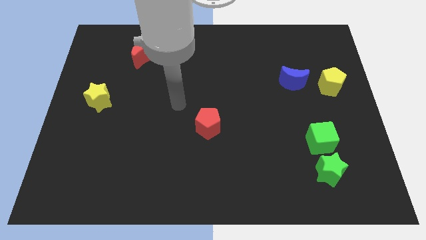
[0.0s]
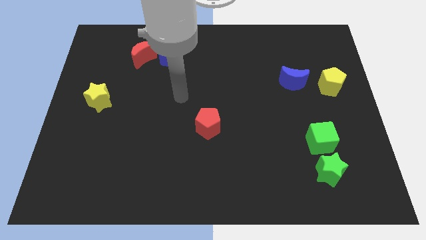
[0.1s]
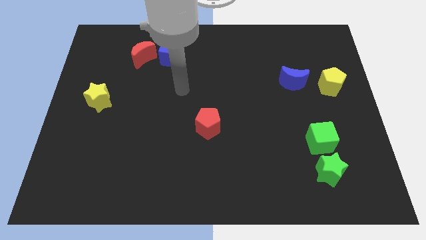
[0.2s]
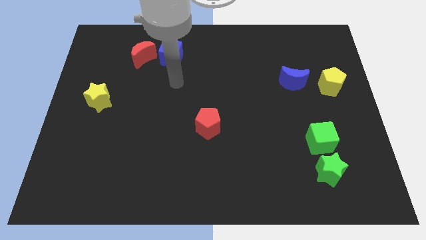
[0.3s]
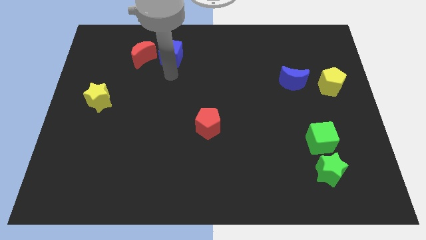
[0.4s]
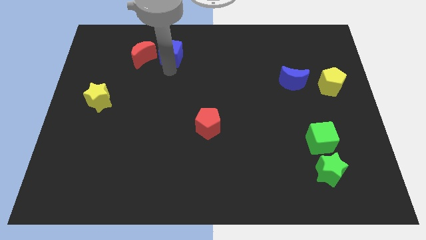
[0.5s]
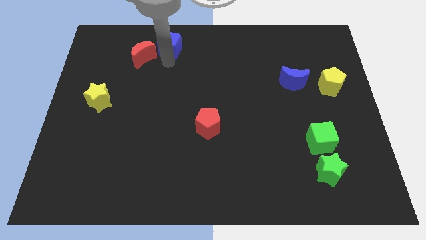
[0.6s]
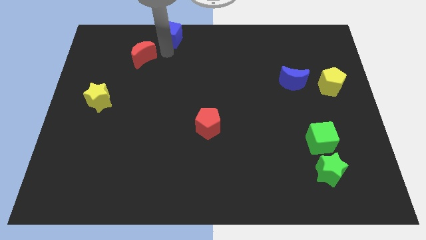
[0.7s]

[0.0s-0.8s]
separate the red moon from the blue cube

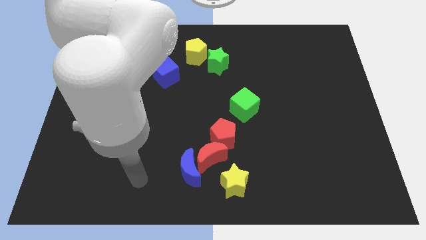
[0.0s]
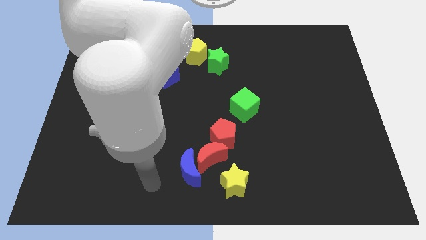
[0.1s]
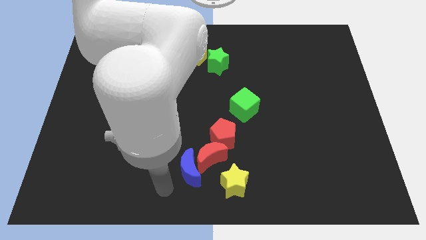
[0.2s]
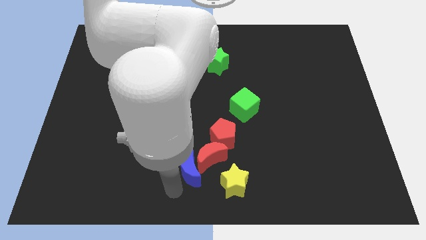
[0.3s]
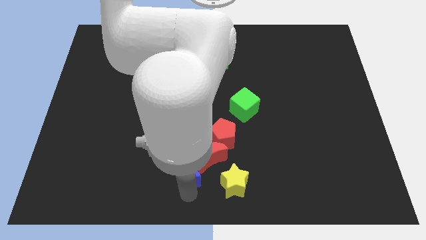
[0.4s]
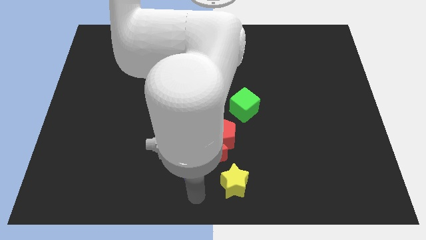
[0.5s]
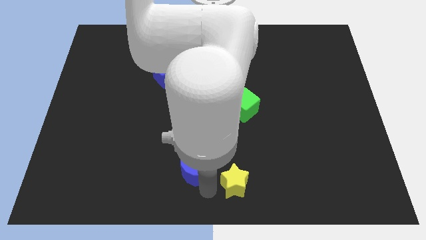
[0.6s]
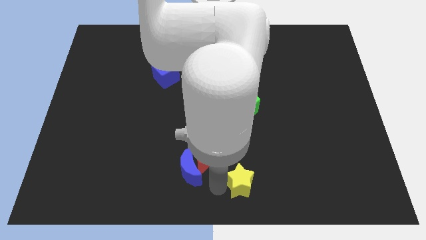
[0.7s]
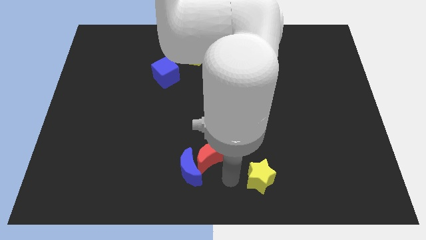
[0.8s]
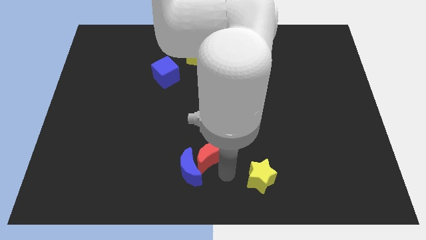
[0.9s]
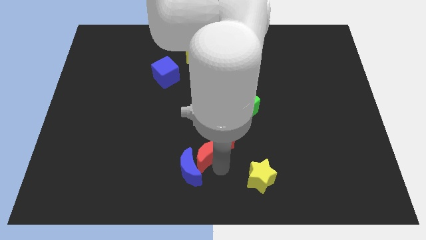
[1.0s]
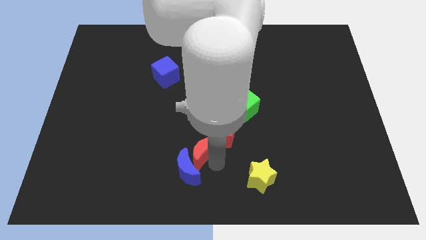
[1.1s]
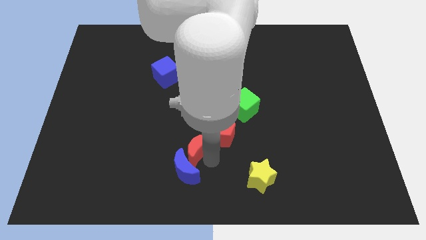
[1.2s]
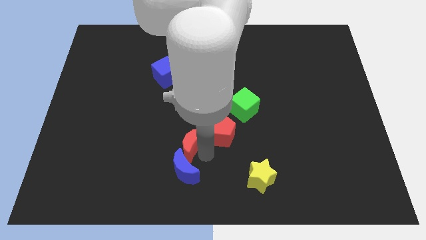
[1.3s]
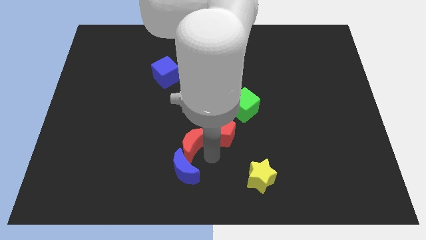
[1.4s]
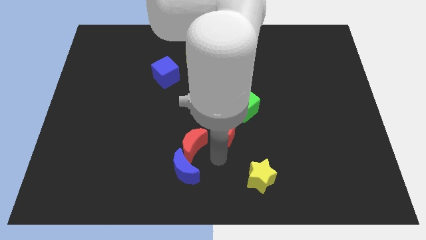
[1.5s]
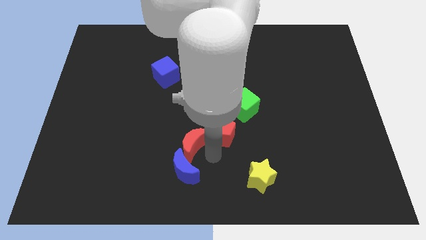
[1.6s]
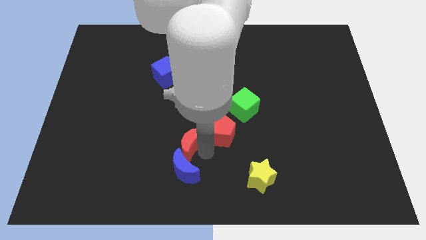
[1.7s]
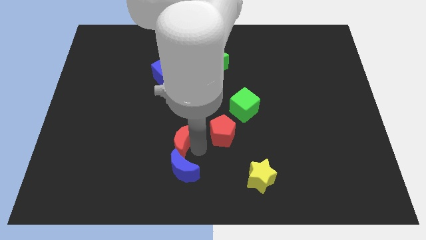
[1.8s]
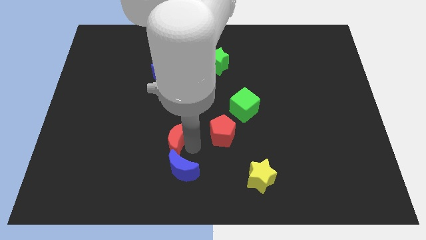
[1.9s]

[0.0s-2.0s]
move the red moon away from the group

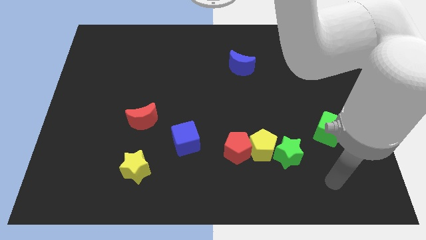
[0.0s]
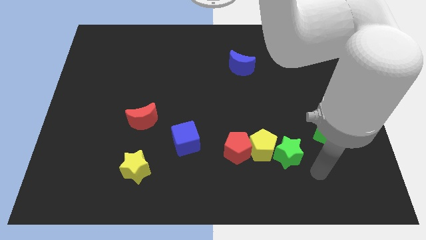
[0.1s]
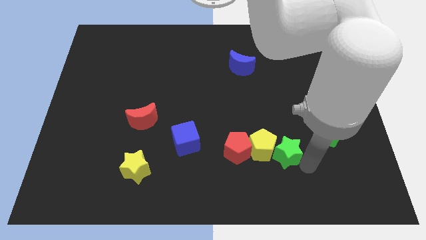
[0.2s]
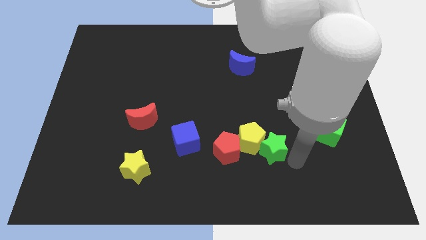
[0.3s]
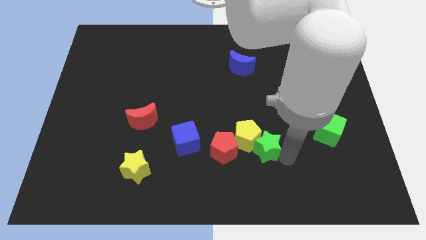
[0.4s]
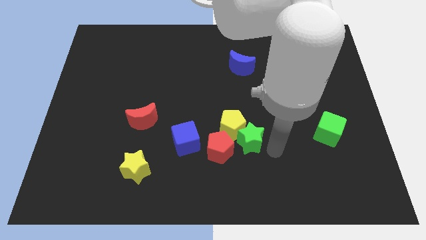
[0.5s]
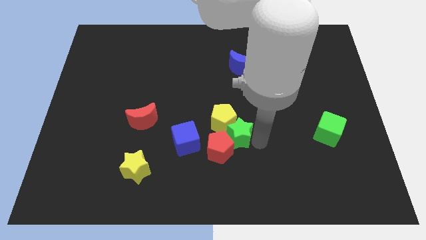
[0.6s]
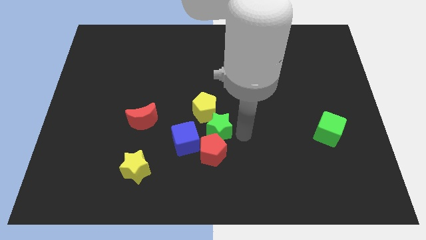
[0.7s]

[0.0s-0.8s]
move the red pentagon away from the yellow pentagon

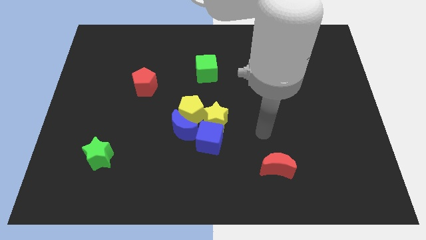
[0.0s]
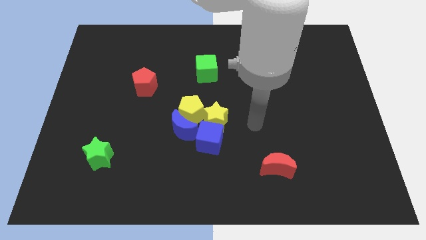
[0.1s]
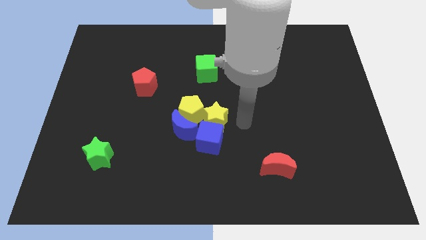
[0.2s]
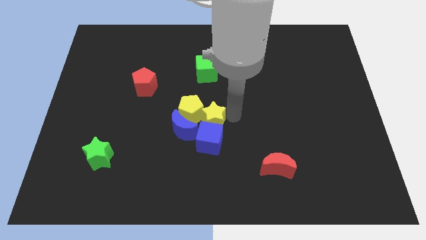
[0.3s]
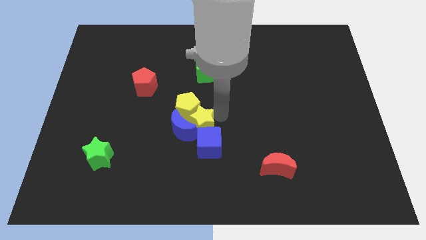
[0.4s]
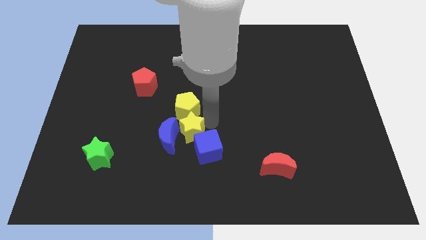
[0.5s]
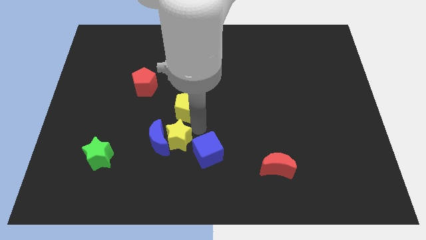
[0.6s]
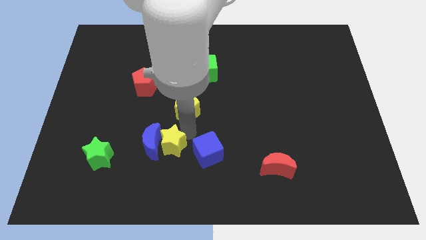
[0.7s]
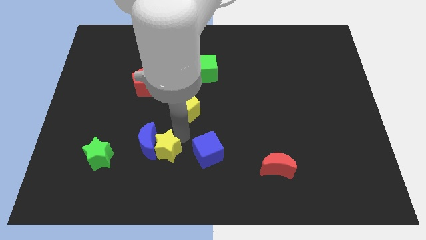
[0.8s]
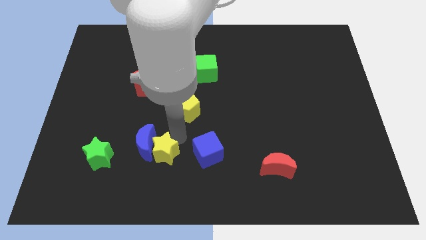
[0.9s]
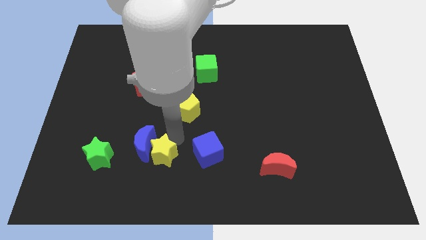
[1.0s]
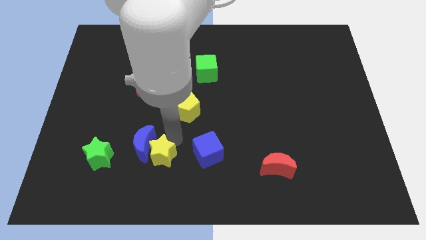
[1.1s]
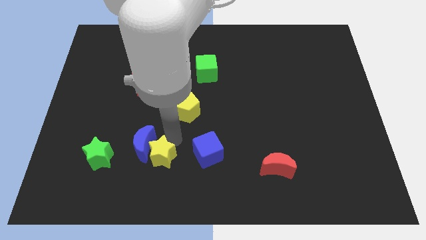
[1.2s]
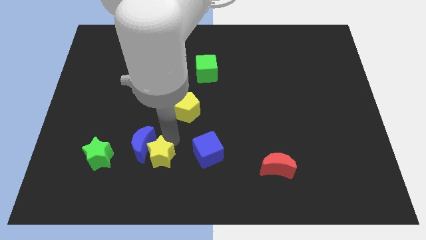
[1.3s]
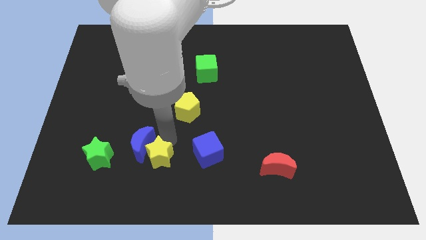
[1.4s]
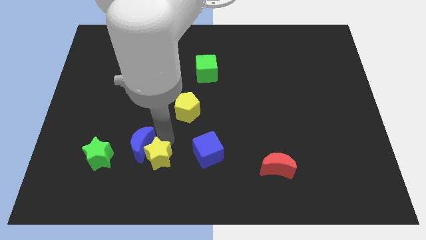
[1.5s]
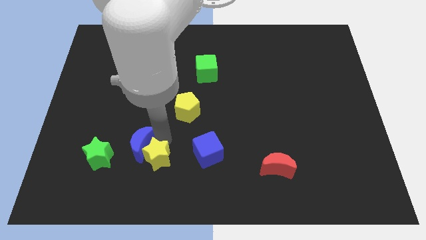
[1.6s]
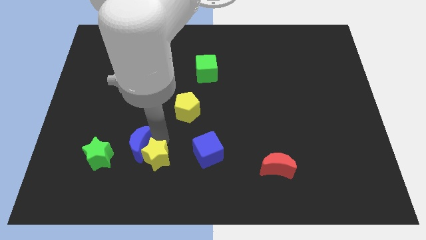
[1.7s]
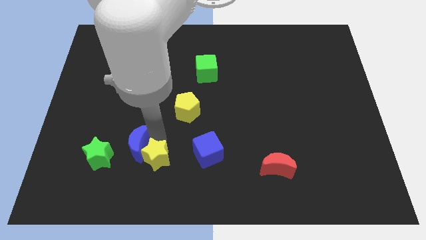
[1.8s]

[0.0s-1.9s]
move the blue moon away from the yellow pentagon, blue cube, and yellow star

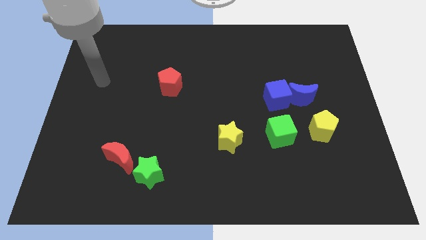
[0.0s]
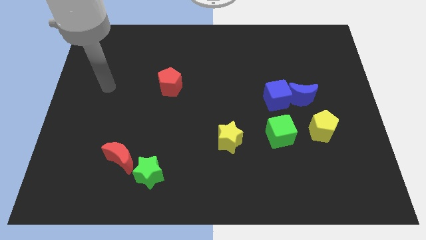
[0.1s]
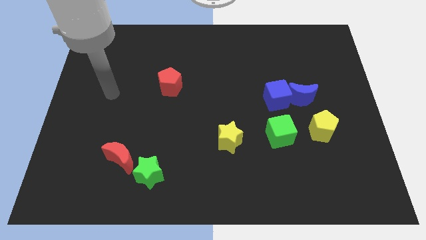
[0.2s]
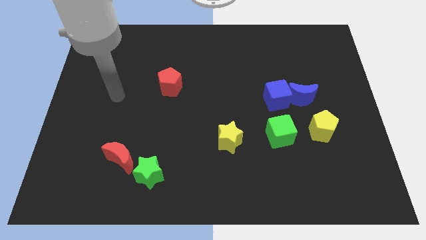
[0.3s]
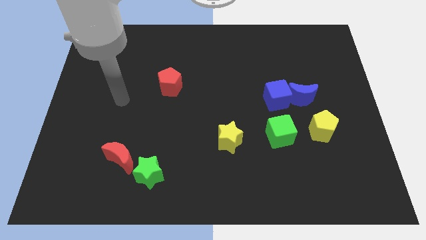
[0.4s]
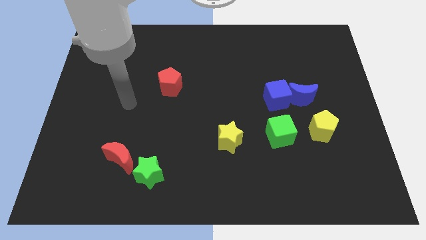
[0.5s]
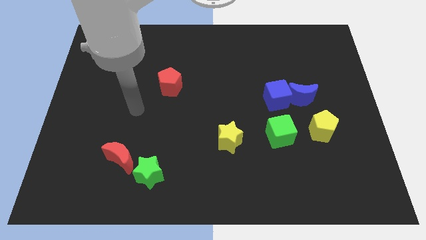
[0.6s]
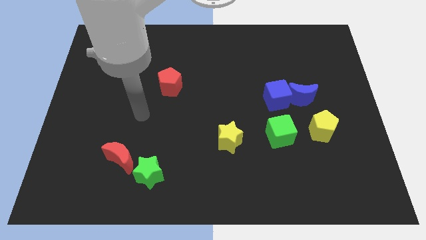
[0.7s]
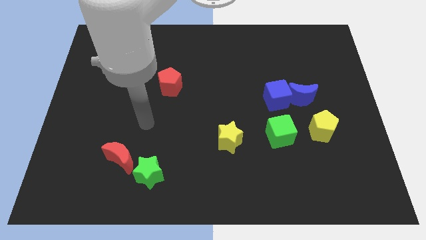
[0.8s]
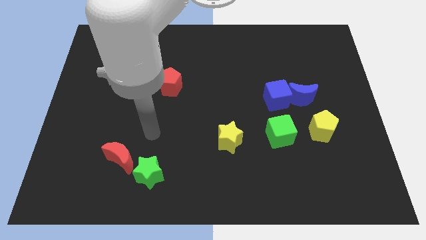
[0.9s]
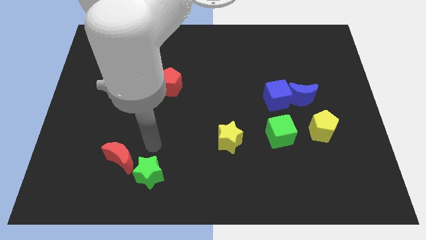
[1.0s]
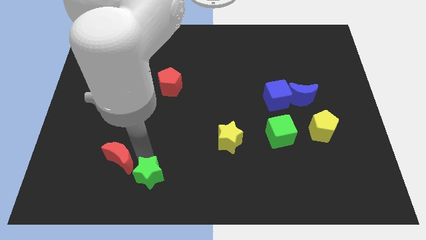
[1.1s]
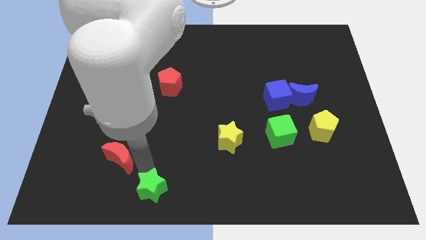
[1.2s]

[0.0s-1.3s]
pull the red moon apart from the green star

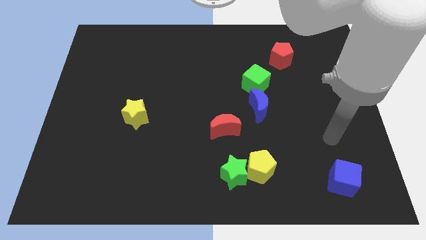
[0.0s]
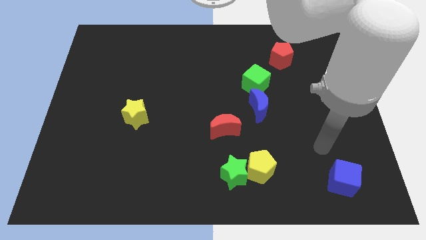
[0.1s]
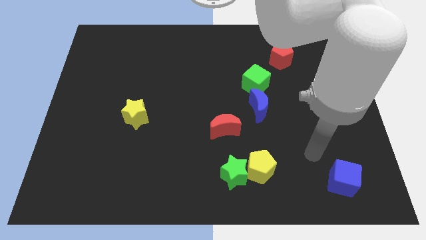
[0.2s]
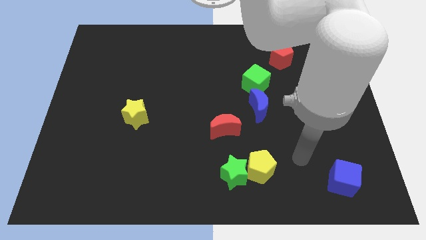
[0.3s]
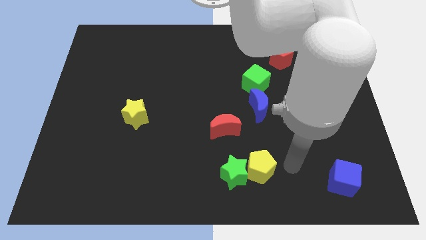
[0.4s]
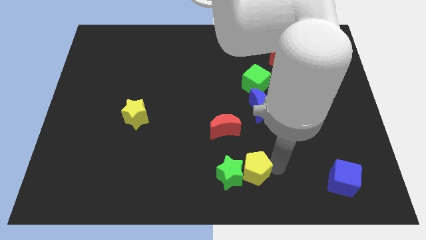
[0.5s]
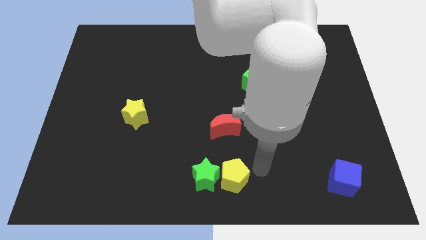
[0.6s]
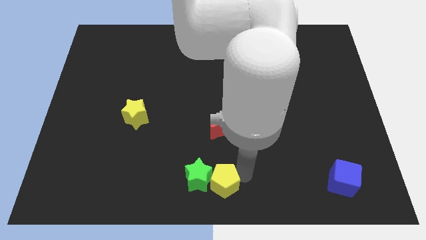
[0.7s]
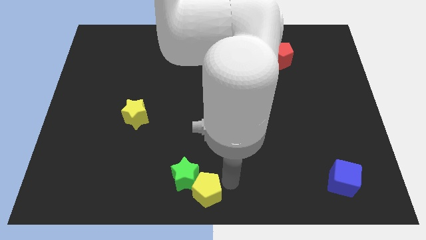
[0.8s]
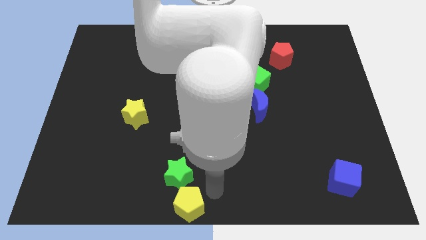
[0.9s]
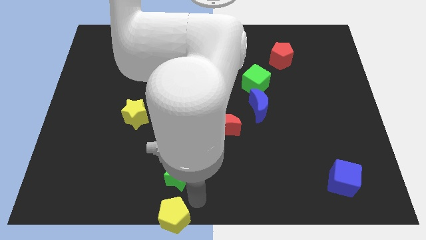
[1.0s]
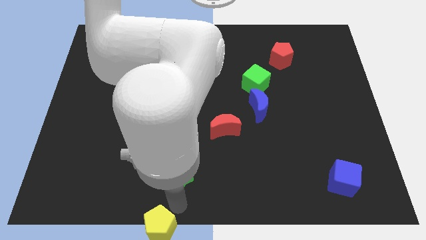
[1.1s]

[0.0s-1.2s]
separate the green star from the yellow pentagon

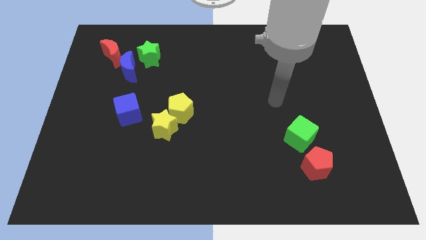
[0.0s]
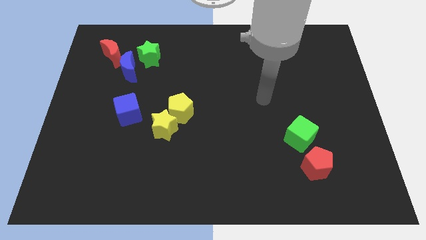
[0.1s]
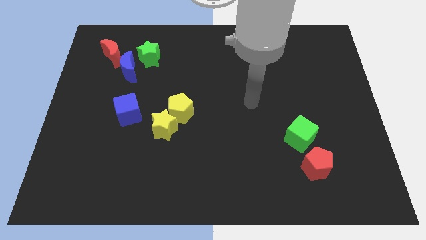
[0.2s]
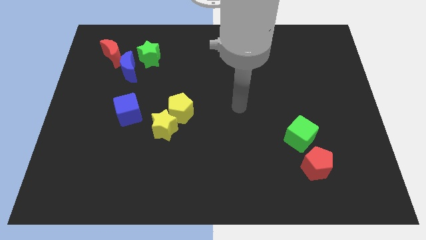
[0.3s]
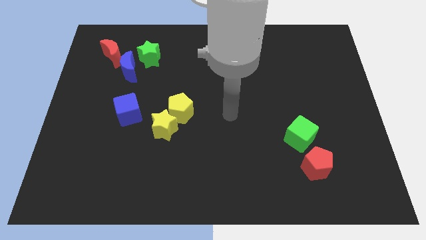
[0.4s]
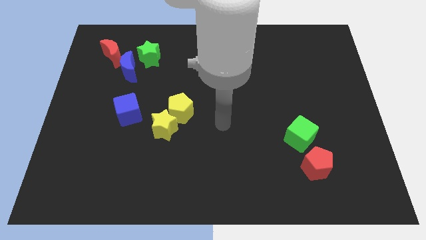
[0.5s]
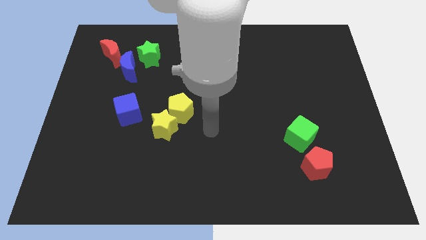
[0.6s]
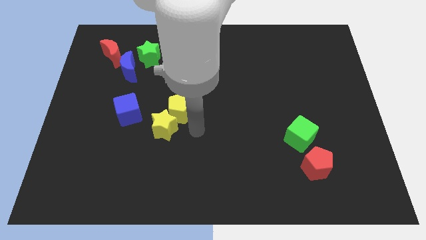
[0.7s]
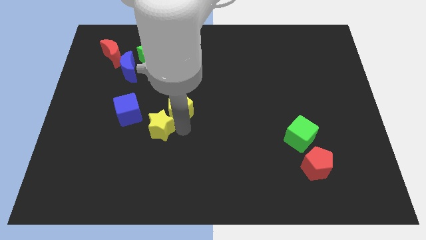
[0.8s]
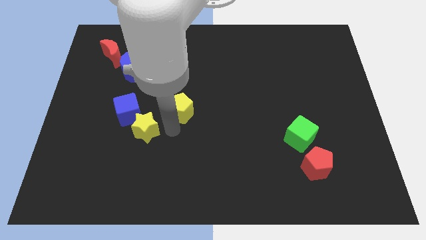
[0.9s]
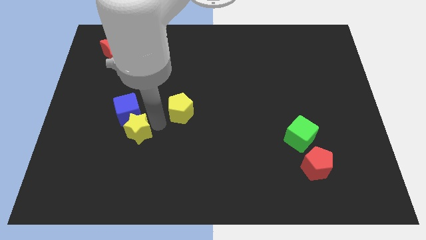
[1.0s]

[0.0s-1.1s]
separate the yellow pentagon from the yellow star

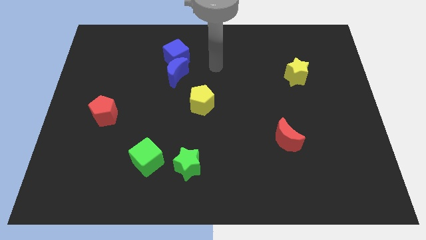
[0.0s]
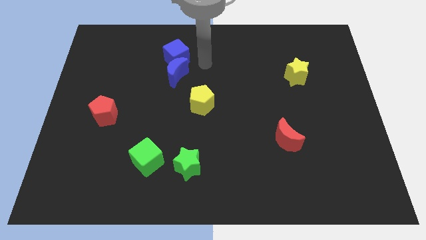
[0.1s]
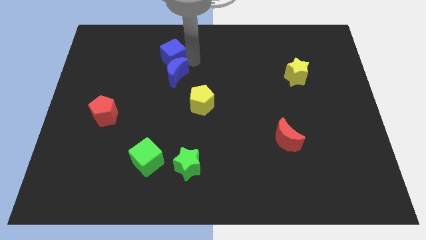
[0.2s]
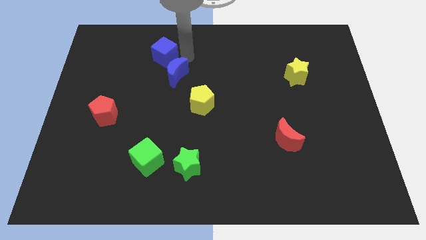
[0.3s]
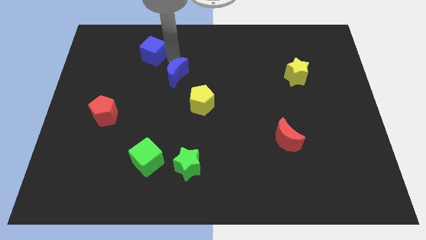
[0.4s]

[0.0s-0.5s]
pull the blue moon apart from the blue cube
